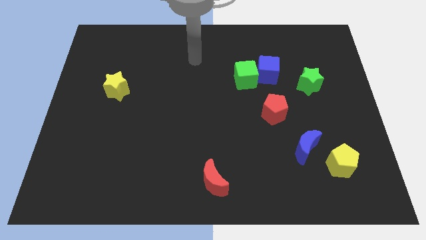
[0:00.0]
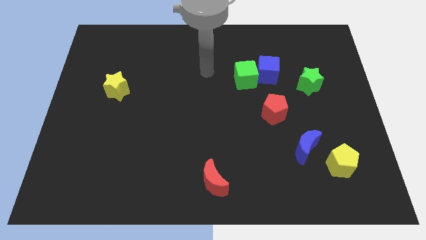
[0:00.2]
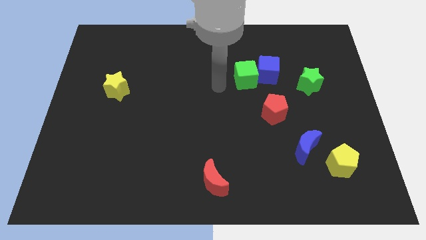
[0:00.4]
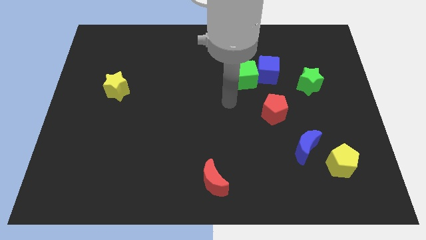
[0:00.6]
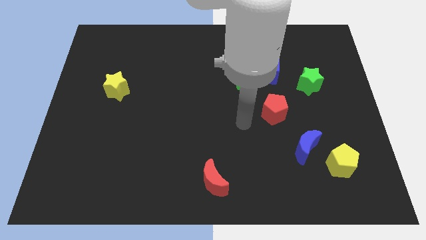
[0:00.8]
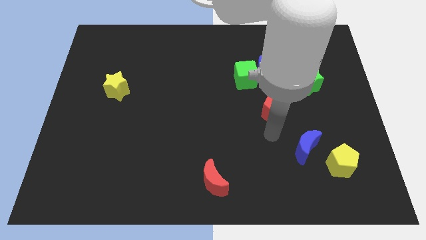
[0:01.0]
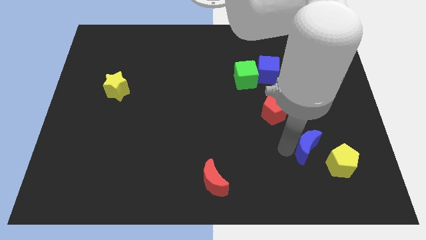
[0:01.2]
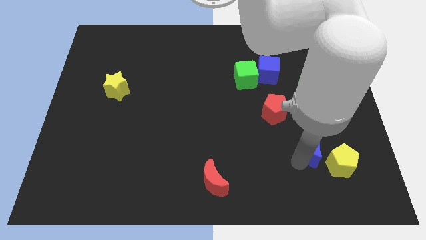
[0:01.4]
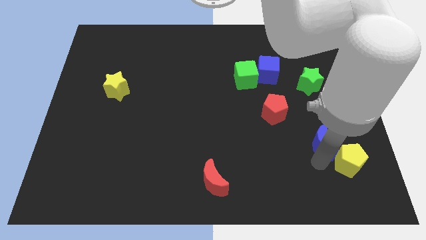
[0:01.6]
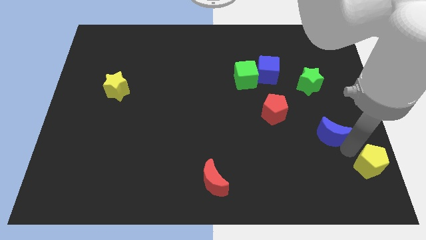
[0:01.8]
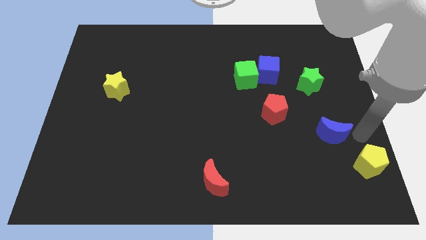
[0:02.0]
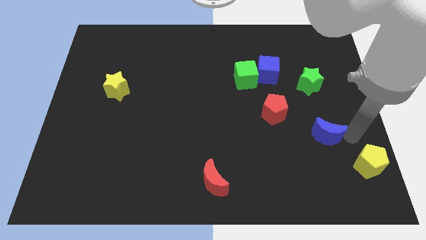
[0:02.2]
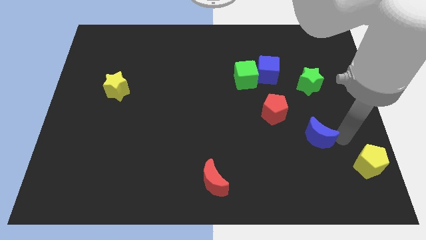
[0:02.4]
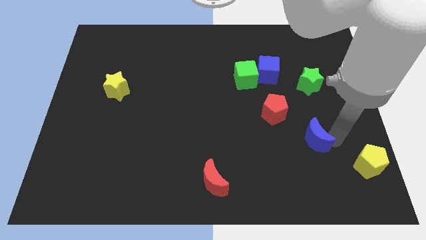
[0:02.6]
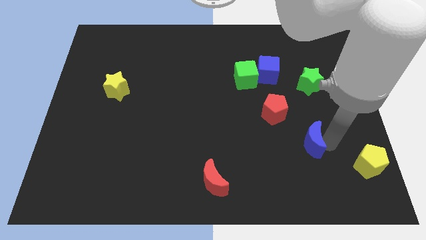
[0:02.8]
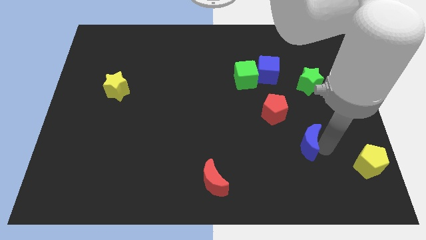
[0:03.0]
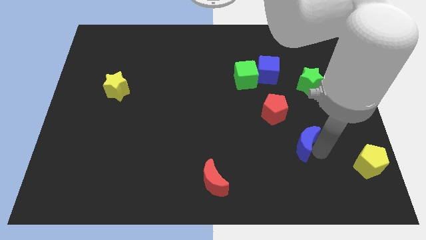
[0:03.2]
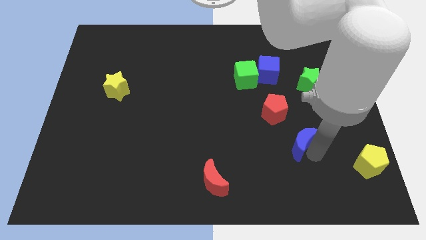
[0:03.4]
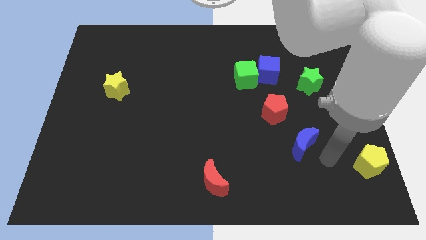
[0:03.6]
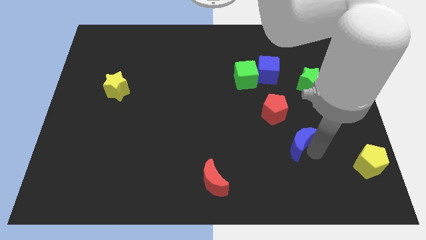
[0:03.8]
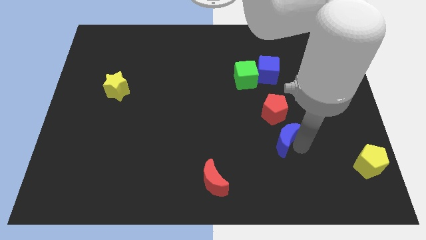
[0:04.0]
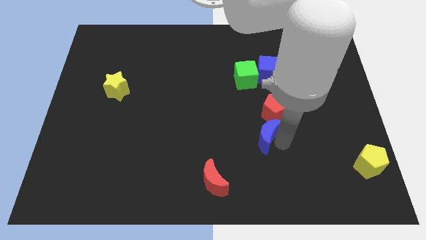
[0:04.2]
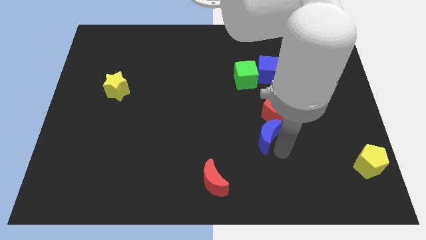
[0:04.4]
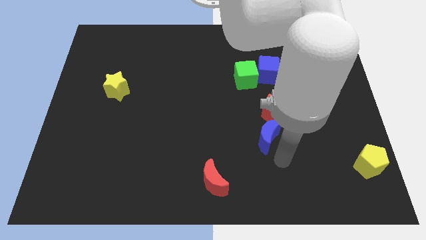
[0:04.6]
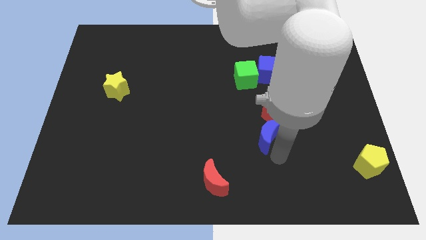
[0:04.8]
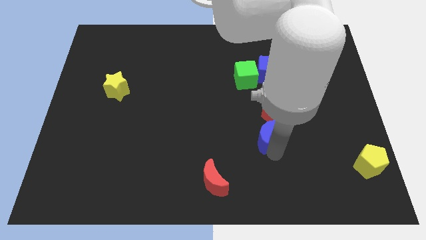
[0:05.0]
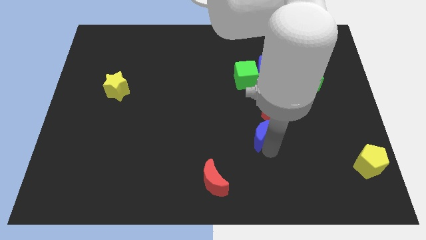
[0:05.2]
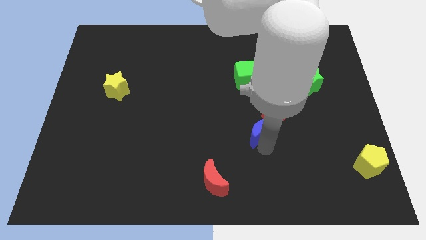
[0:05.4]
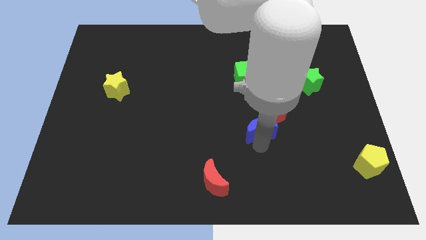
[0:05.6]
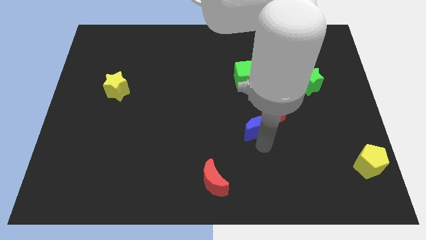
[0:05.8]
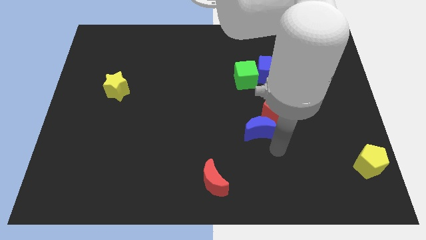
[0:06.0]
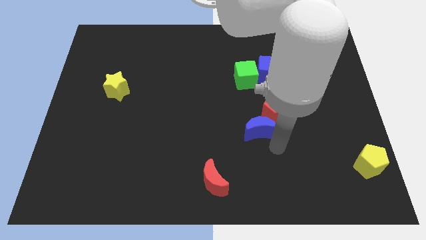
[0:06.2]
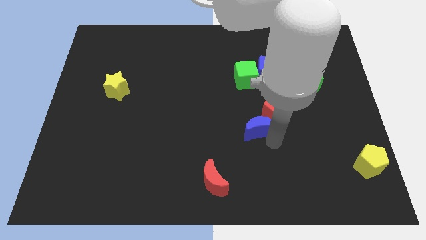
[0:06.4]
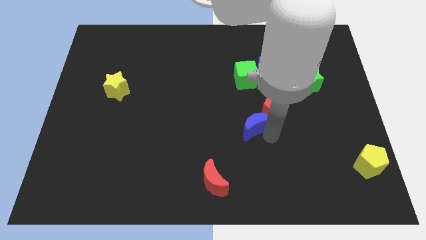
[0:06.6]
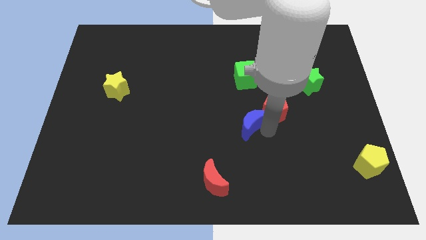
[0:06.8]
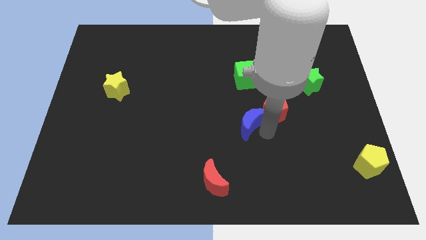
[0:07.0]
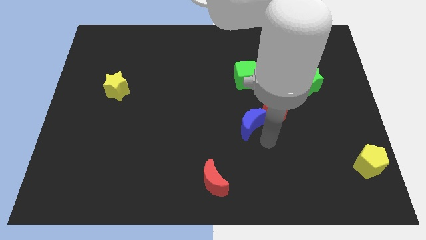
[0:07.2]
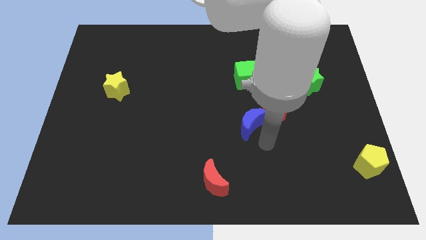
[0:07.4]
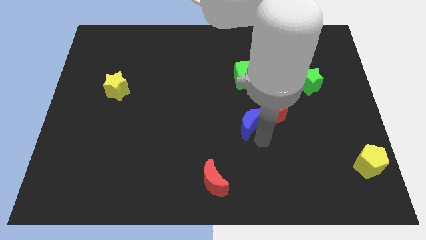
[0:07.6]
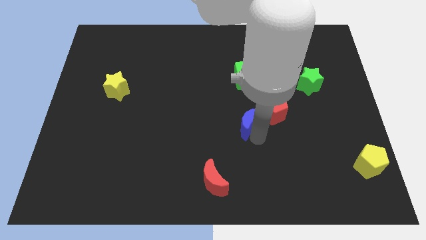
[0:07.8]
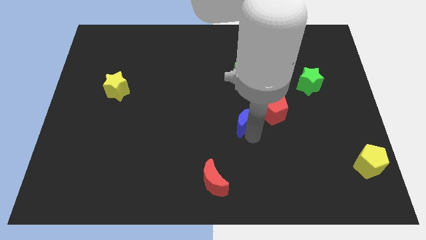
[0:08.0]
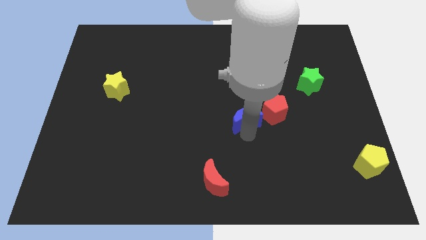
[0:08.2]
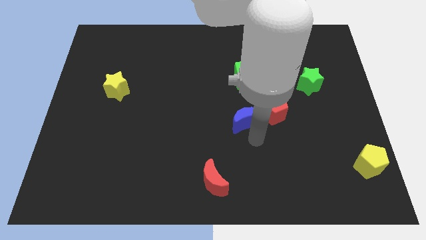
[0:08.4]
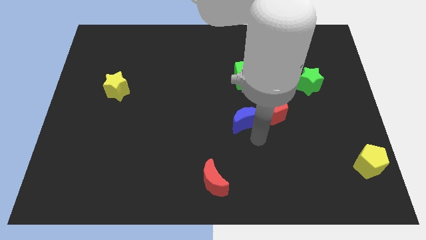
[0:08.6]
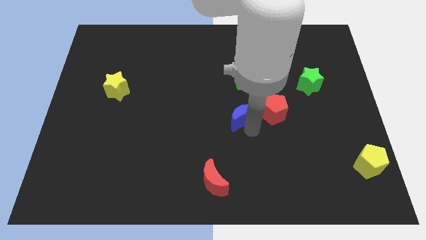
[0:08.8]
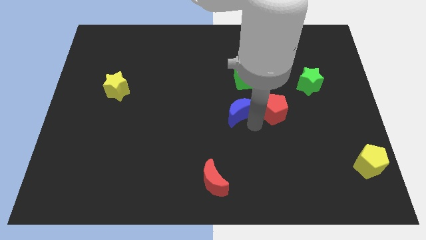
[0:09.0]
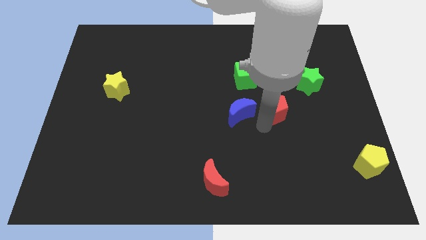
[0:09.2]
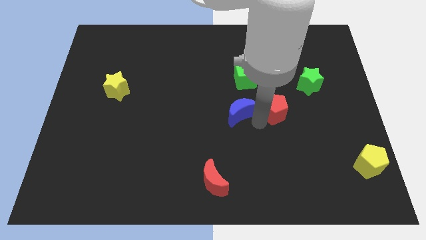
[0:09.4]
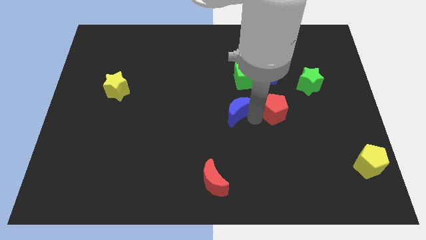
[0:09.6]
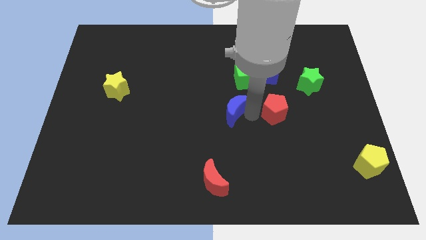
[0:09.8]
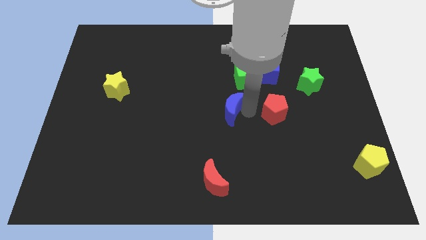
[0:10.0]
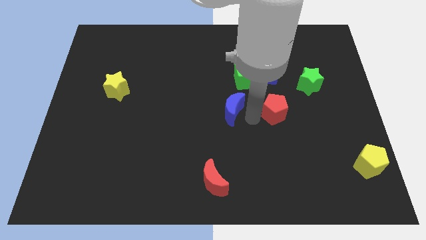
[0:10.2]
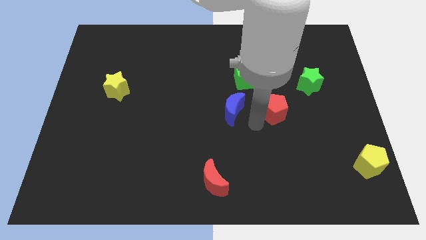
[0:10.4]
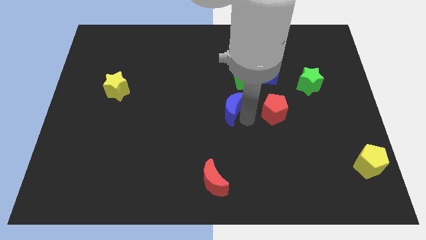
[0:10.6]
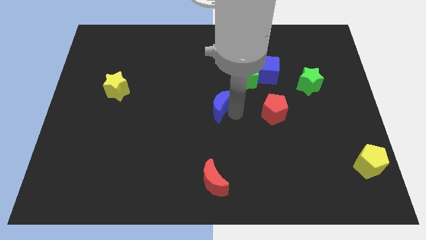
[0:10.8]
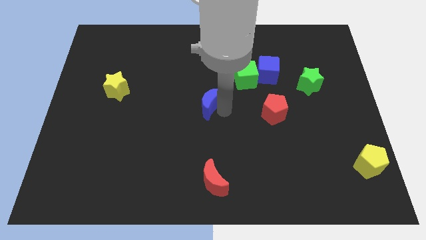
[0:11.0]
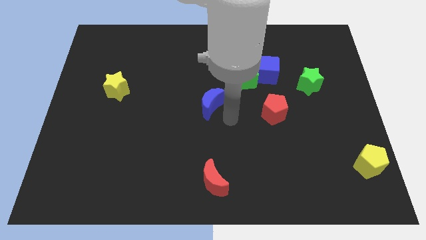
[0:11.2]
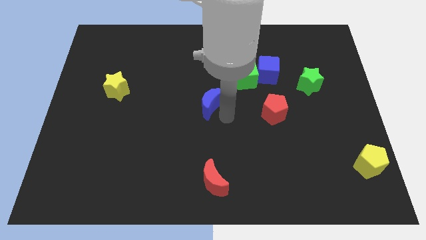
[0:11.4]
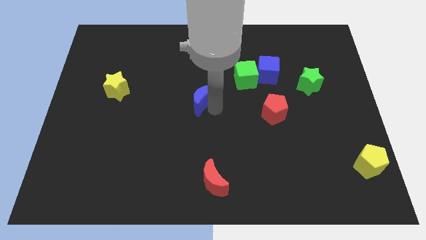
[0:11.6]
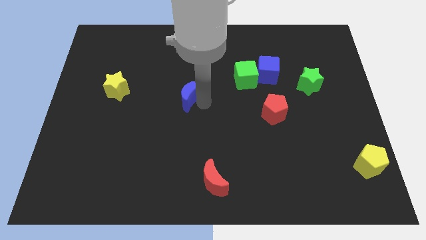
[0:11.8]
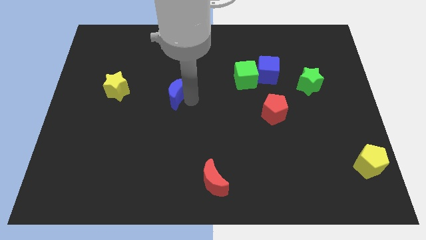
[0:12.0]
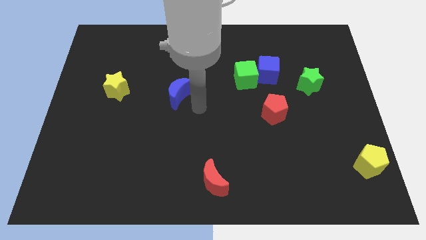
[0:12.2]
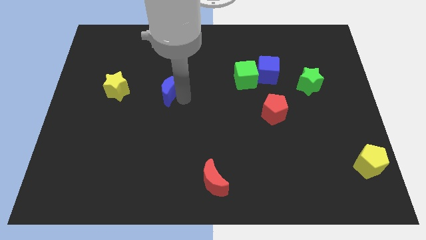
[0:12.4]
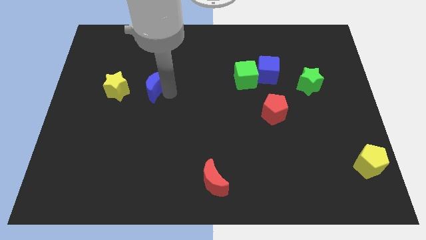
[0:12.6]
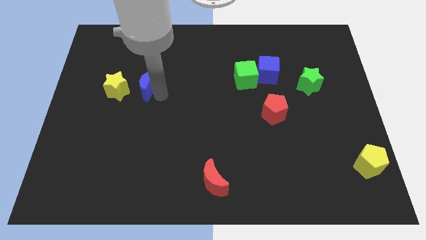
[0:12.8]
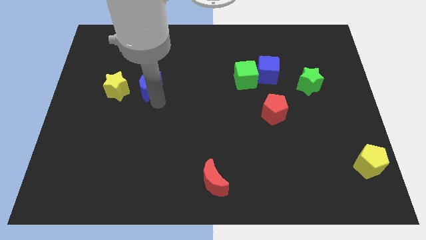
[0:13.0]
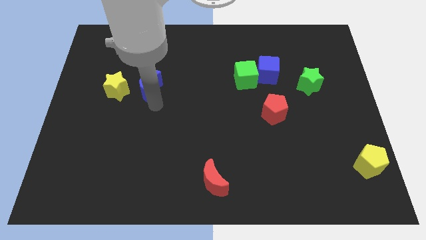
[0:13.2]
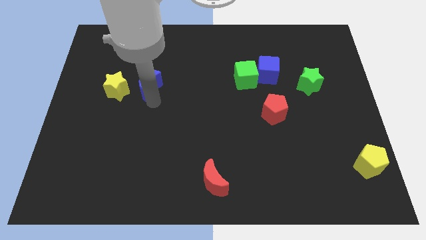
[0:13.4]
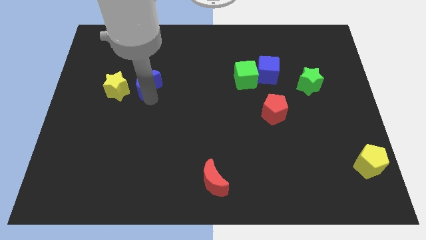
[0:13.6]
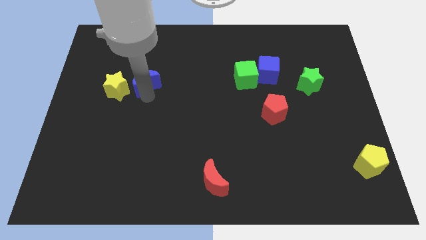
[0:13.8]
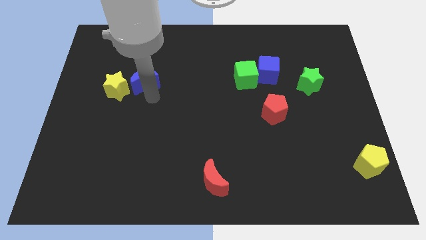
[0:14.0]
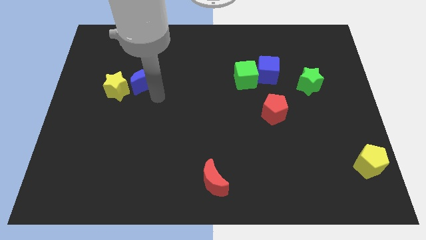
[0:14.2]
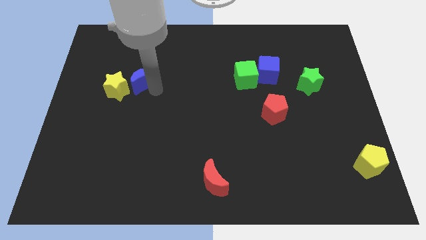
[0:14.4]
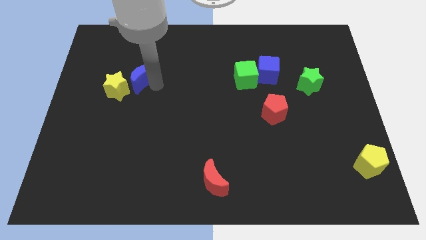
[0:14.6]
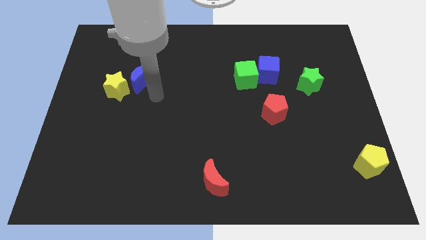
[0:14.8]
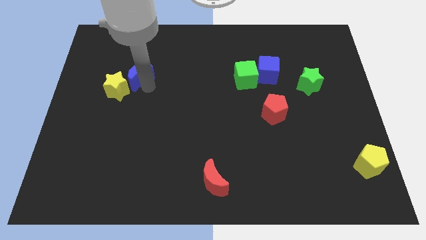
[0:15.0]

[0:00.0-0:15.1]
move the blue moon to the top of the yellow star
